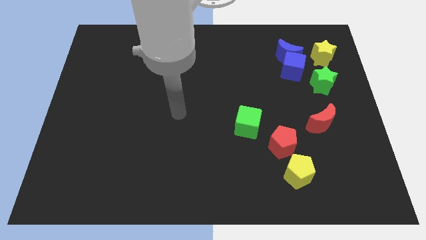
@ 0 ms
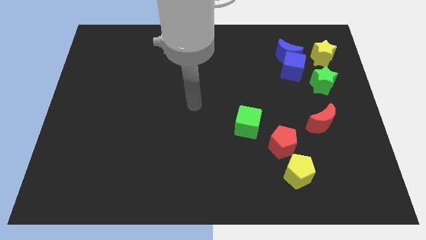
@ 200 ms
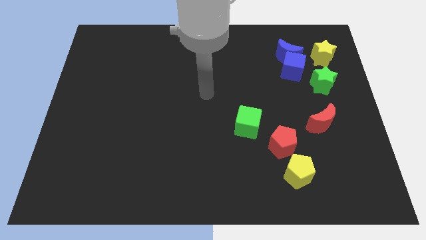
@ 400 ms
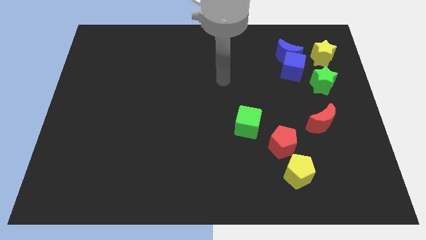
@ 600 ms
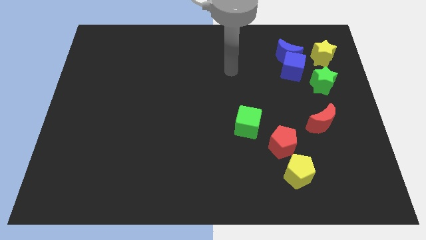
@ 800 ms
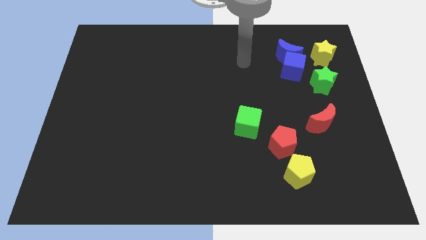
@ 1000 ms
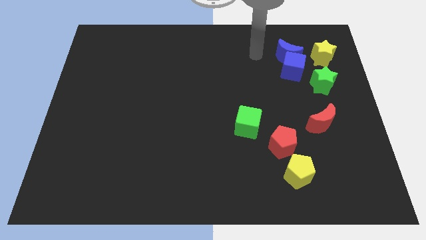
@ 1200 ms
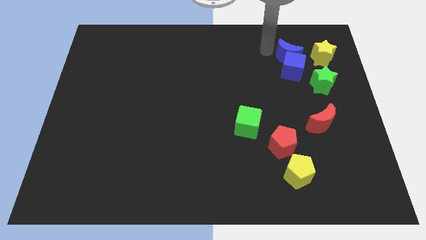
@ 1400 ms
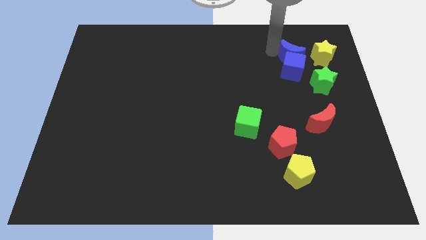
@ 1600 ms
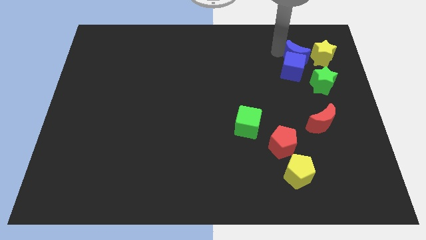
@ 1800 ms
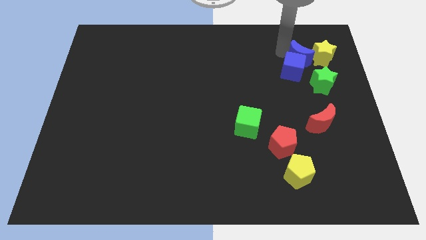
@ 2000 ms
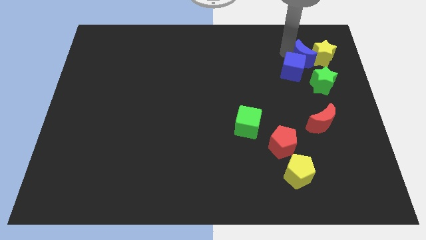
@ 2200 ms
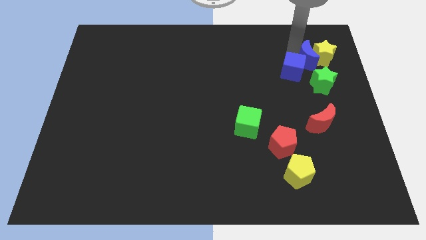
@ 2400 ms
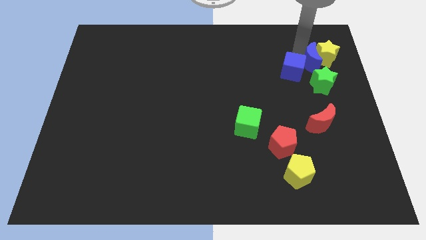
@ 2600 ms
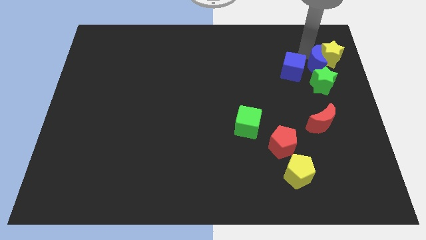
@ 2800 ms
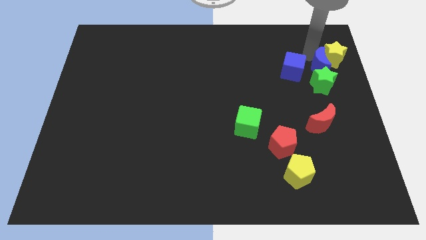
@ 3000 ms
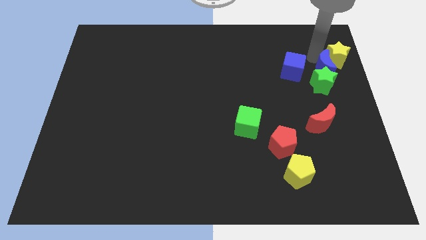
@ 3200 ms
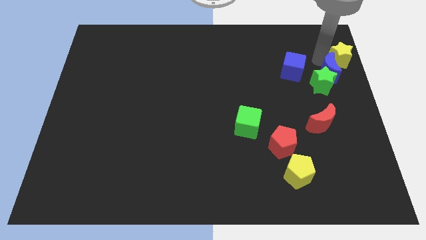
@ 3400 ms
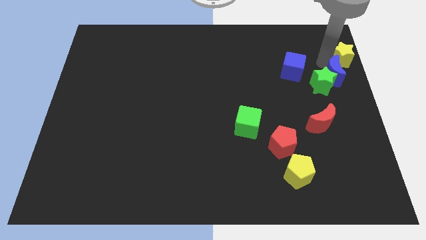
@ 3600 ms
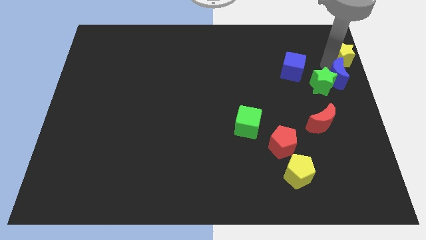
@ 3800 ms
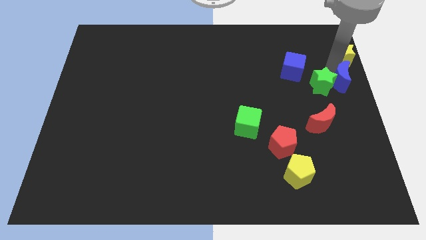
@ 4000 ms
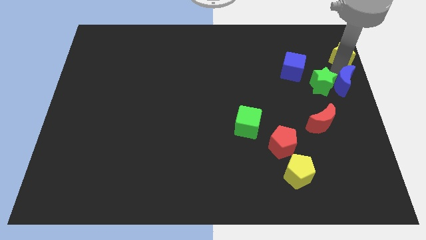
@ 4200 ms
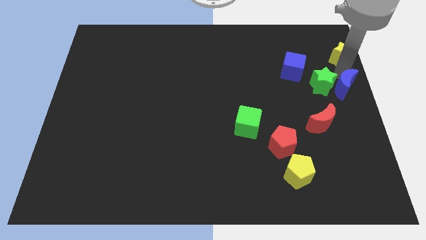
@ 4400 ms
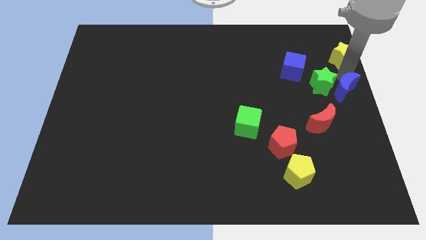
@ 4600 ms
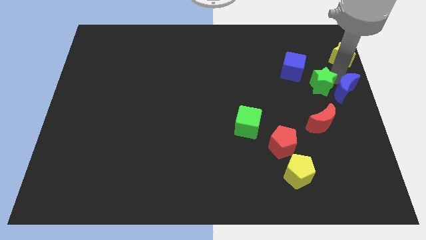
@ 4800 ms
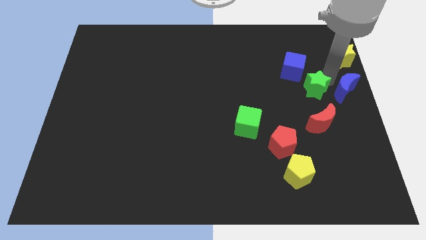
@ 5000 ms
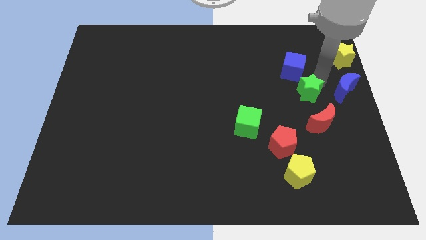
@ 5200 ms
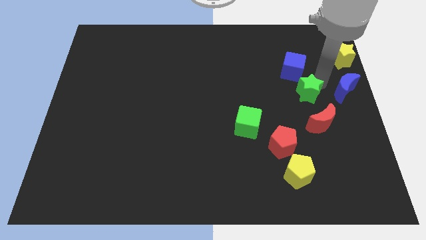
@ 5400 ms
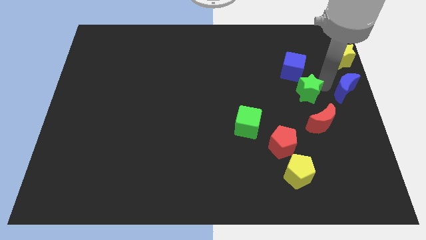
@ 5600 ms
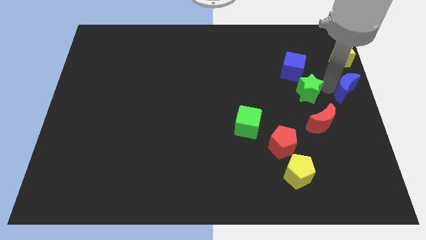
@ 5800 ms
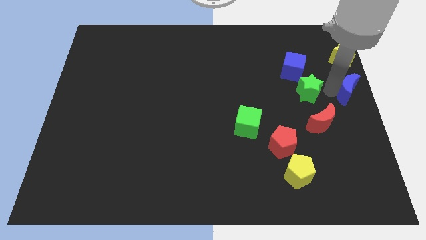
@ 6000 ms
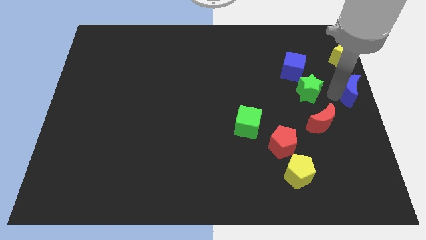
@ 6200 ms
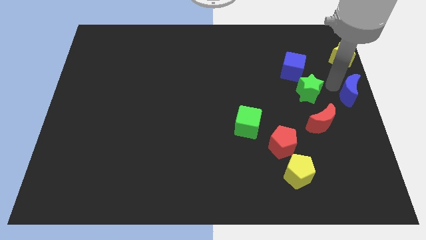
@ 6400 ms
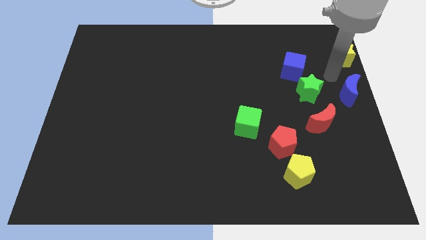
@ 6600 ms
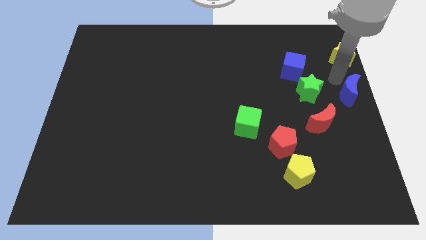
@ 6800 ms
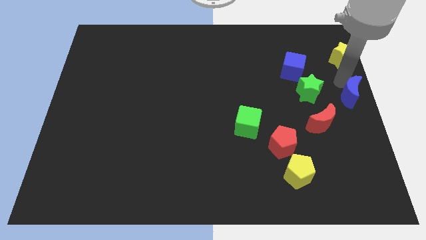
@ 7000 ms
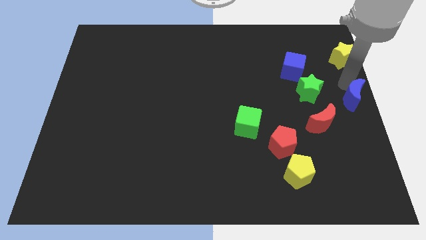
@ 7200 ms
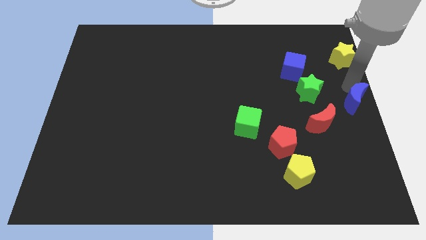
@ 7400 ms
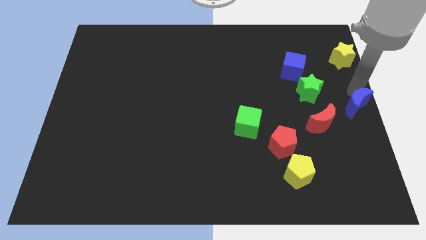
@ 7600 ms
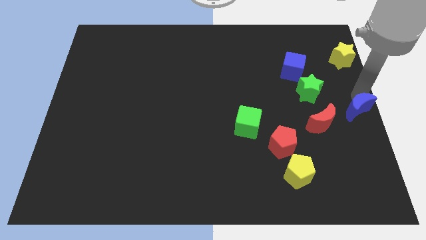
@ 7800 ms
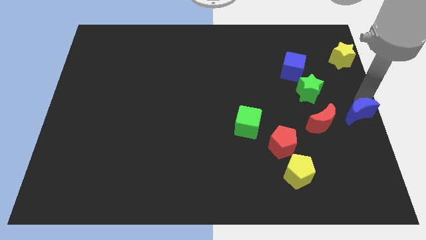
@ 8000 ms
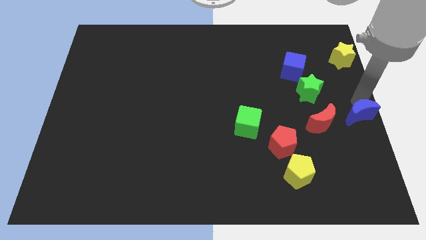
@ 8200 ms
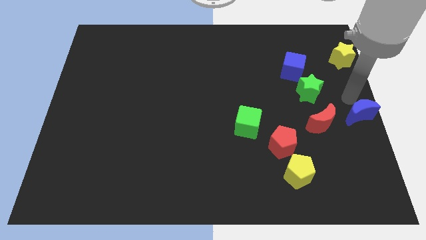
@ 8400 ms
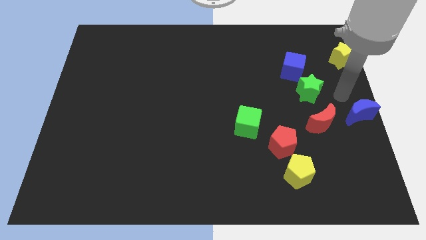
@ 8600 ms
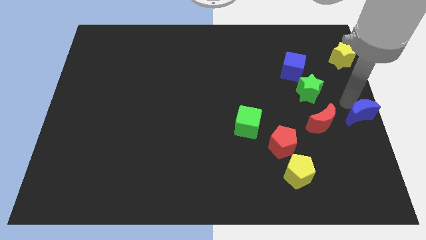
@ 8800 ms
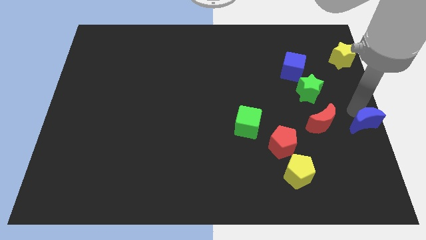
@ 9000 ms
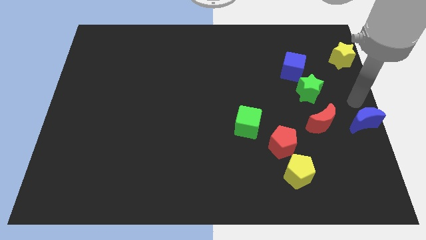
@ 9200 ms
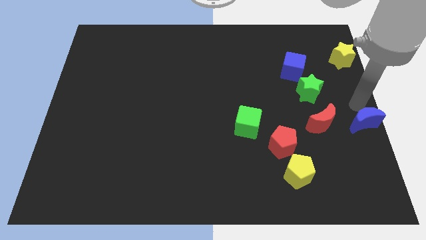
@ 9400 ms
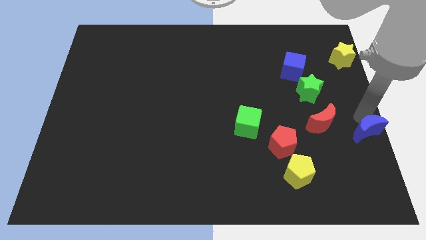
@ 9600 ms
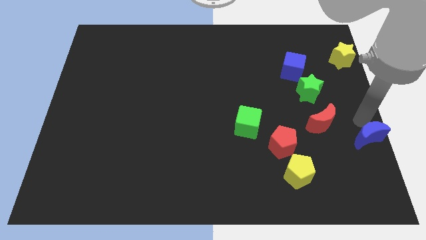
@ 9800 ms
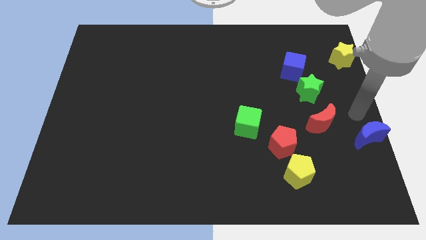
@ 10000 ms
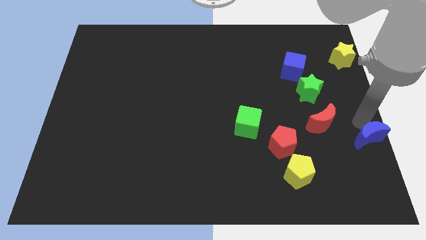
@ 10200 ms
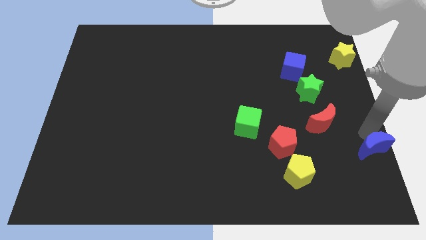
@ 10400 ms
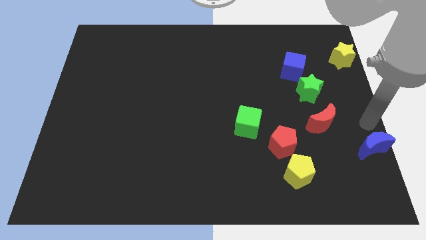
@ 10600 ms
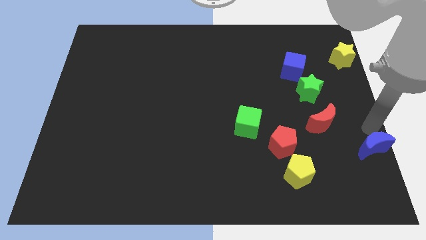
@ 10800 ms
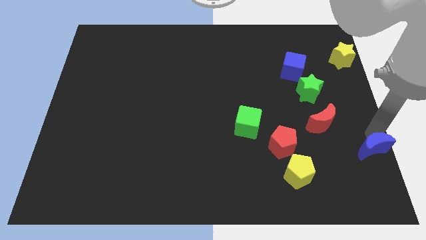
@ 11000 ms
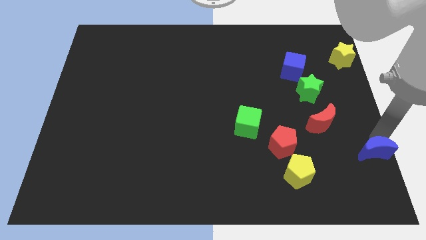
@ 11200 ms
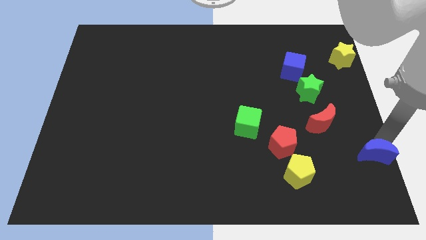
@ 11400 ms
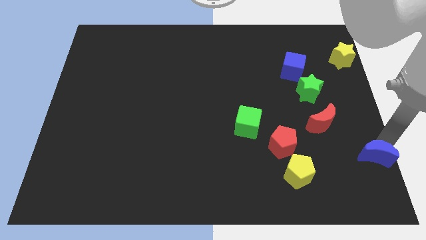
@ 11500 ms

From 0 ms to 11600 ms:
move the blue moon to the bottom right corner
